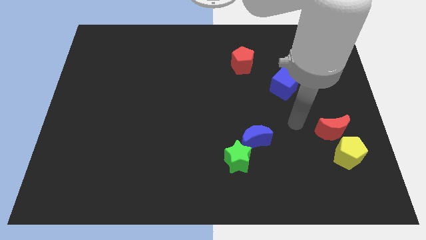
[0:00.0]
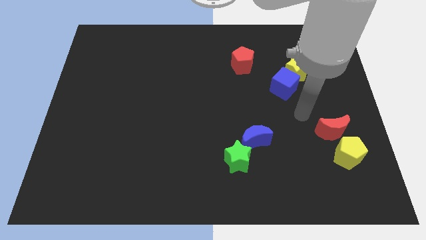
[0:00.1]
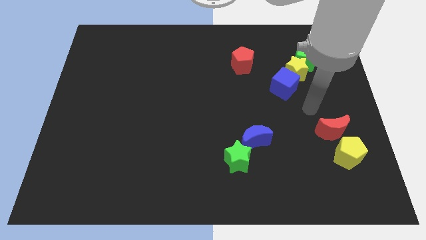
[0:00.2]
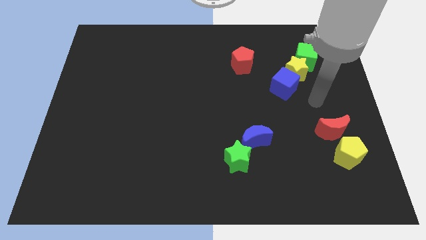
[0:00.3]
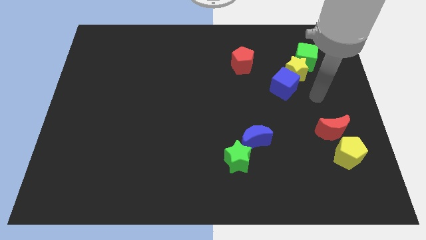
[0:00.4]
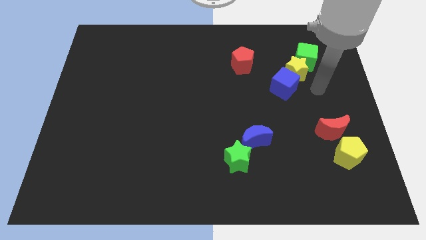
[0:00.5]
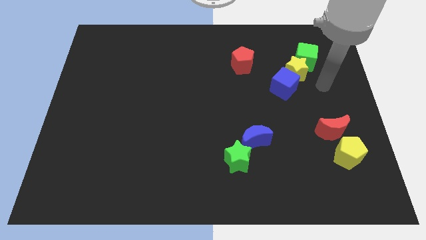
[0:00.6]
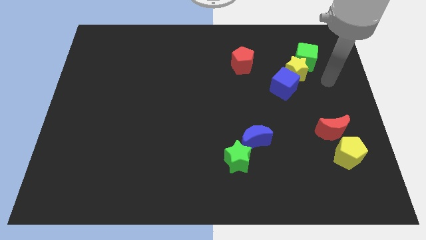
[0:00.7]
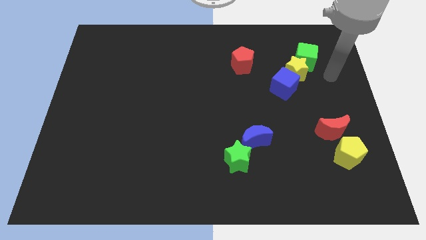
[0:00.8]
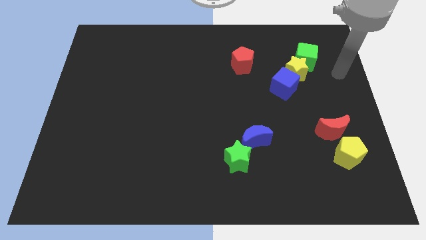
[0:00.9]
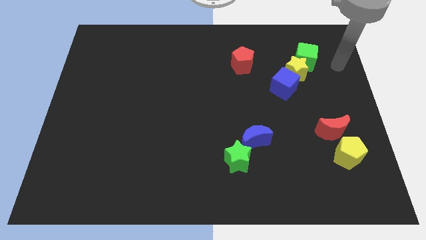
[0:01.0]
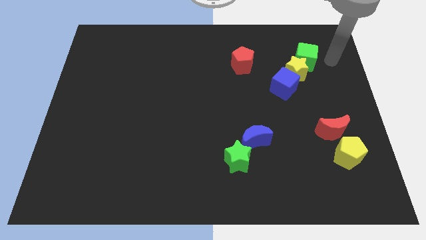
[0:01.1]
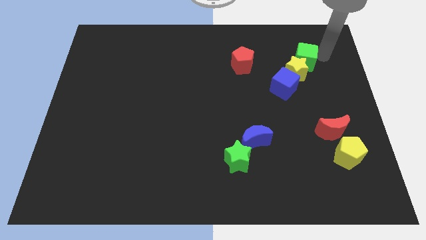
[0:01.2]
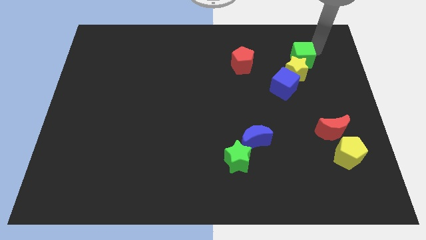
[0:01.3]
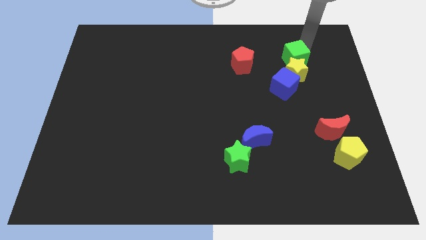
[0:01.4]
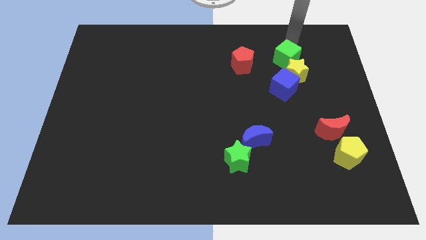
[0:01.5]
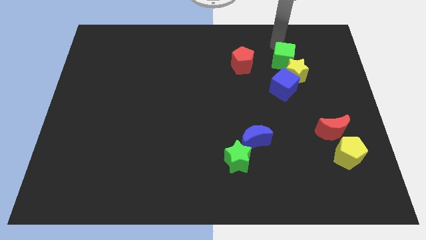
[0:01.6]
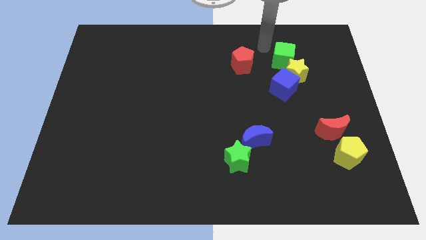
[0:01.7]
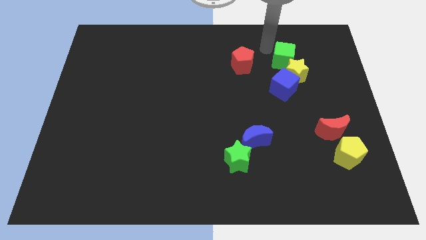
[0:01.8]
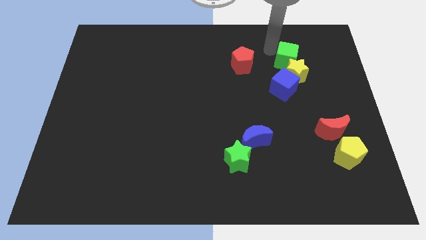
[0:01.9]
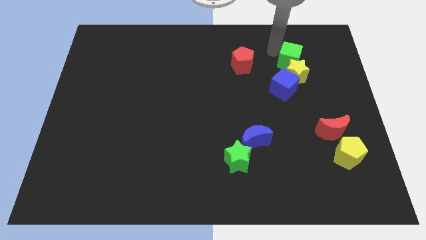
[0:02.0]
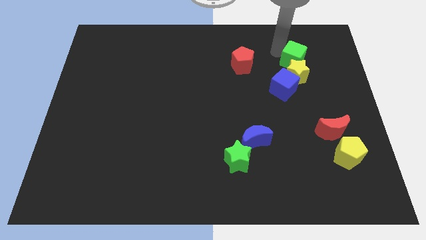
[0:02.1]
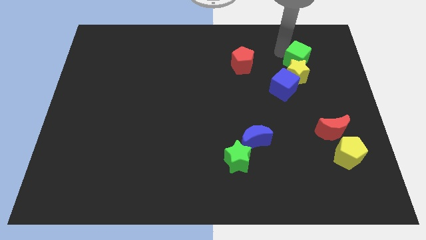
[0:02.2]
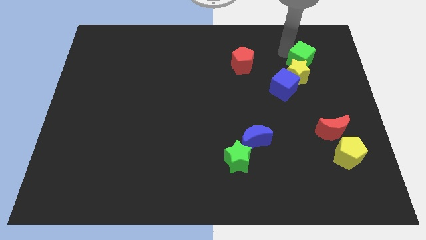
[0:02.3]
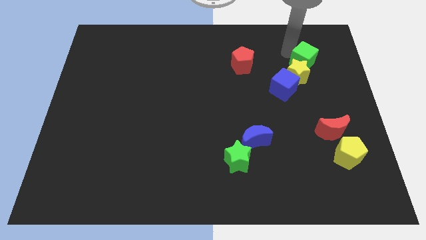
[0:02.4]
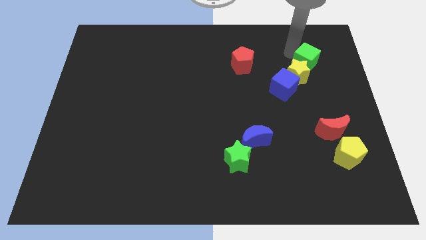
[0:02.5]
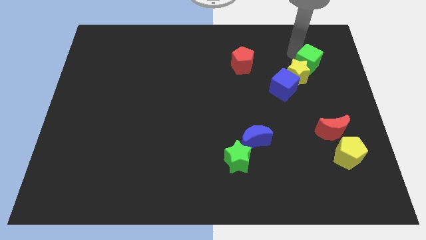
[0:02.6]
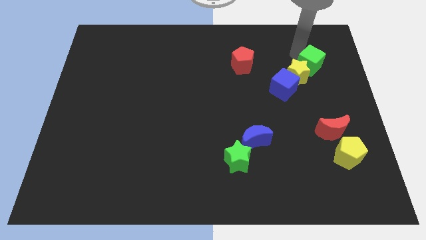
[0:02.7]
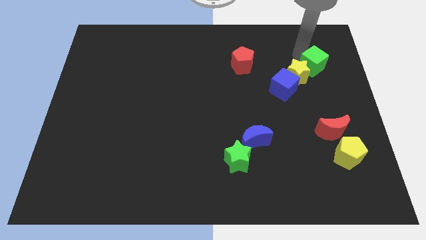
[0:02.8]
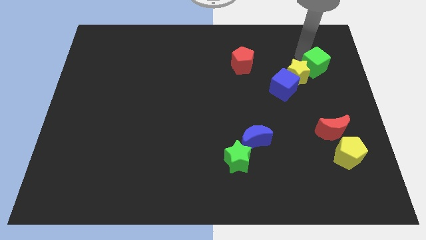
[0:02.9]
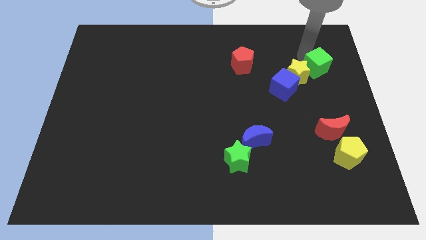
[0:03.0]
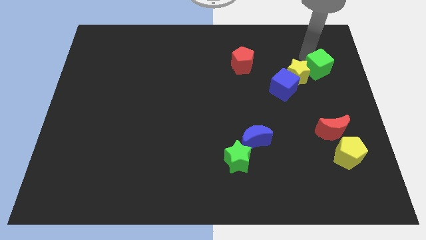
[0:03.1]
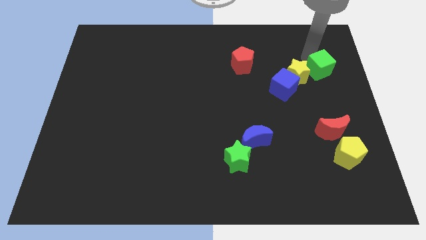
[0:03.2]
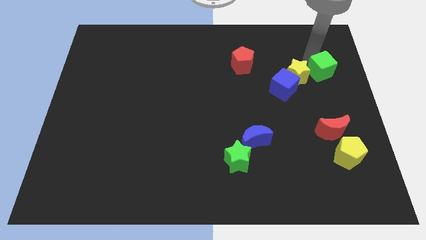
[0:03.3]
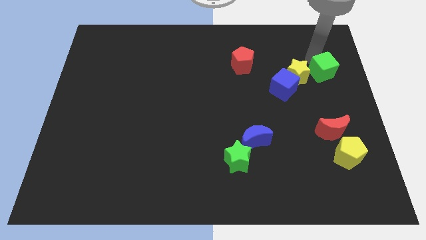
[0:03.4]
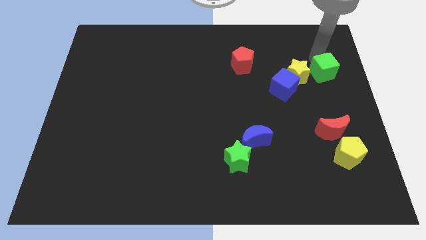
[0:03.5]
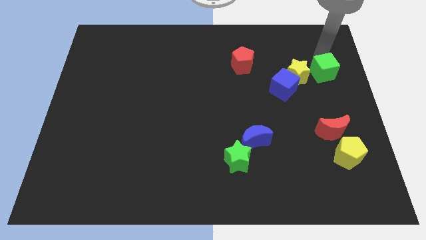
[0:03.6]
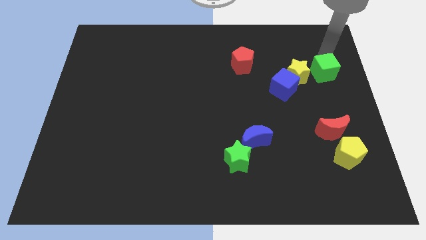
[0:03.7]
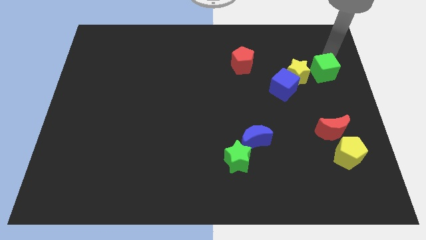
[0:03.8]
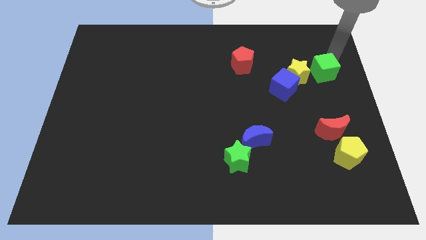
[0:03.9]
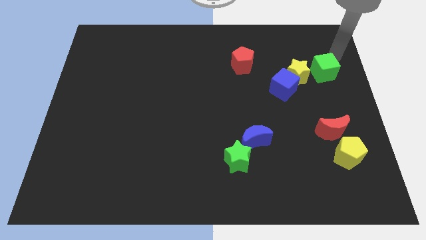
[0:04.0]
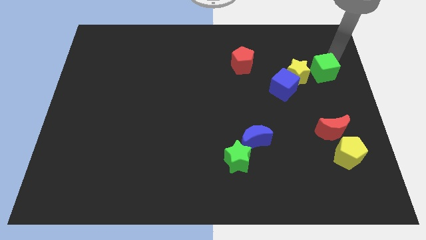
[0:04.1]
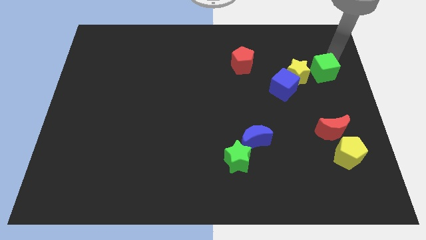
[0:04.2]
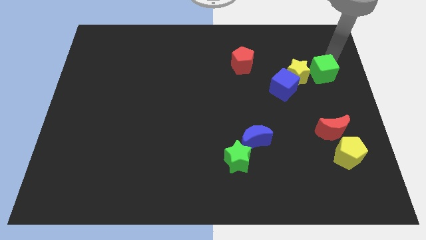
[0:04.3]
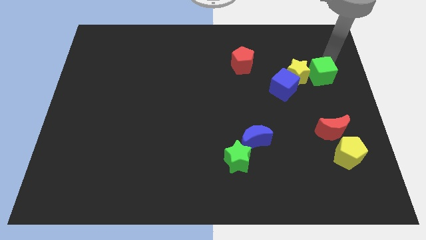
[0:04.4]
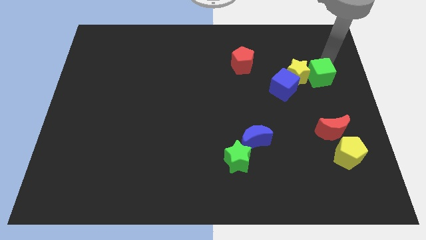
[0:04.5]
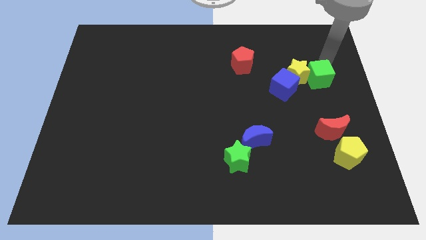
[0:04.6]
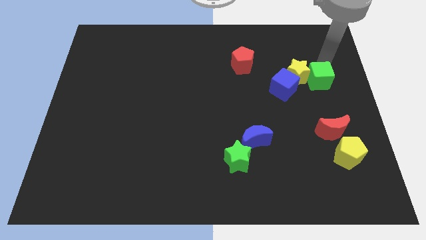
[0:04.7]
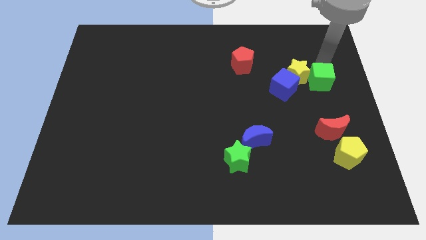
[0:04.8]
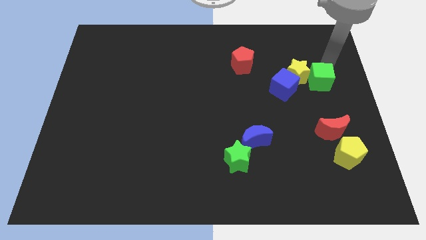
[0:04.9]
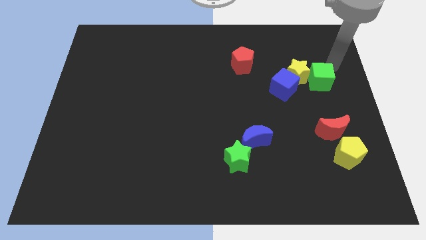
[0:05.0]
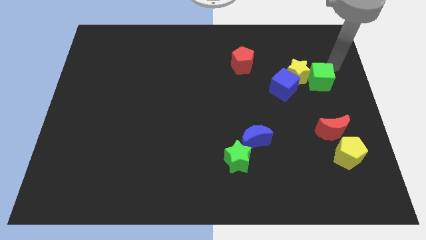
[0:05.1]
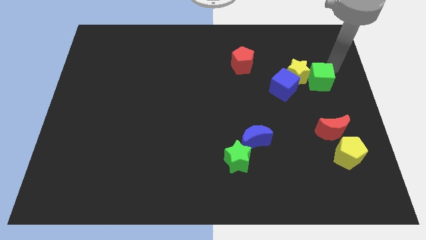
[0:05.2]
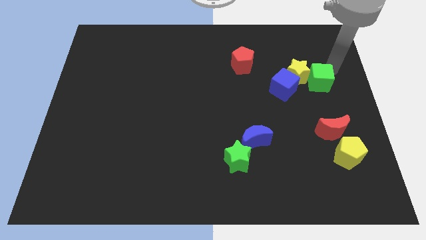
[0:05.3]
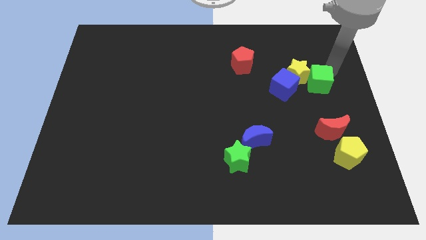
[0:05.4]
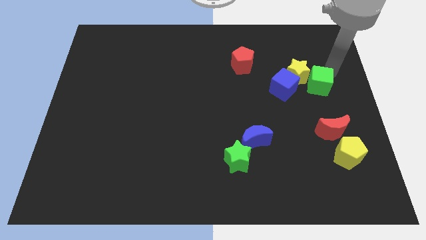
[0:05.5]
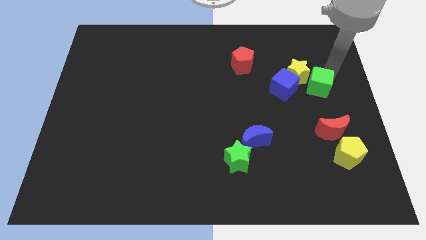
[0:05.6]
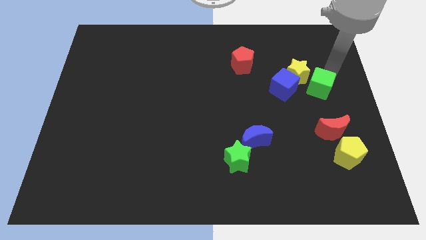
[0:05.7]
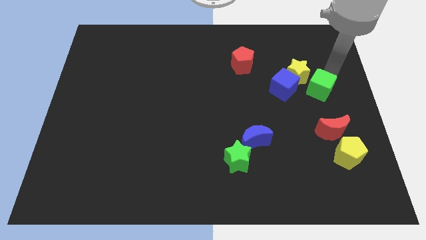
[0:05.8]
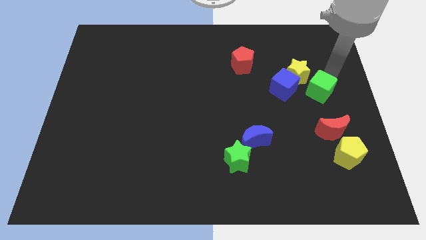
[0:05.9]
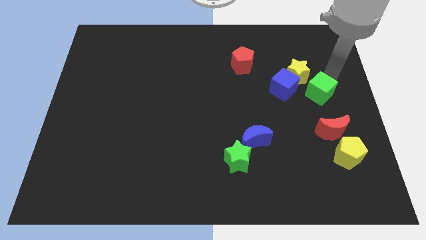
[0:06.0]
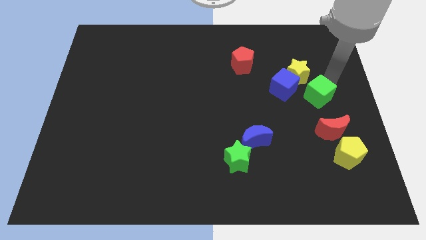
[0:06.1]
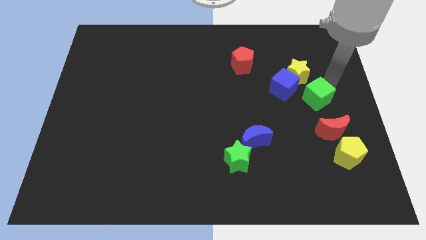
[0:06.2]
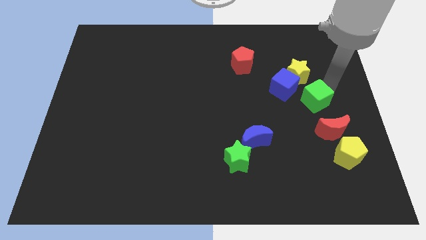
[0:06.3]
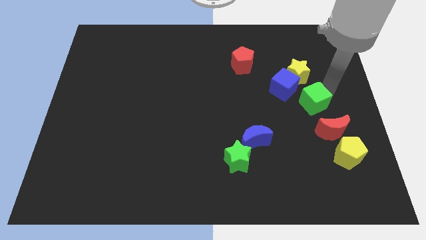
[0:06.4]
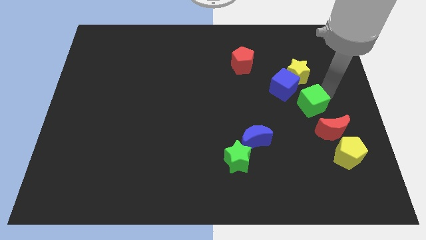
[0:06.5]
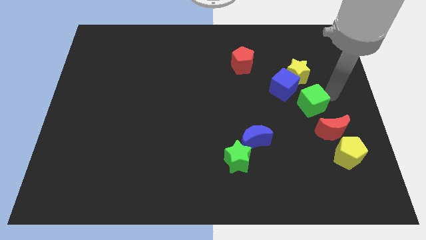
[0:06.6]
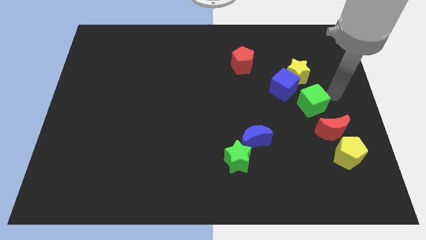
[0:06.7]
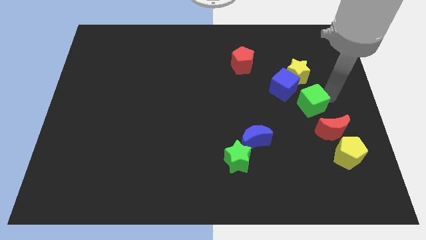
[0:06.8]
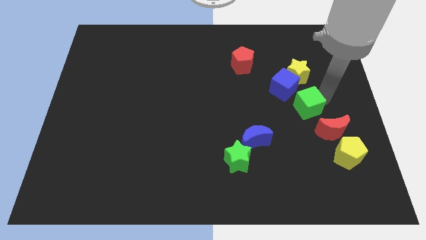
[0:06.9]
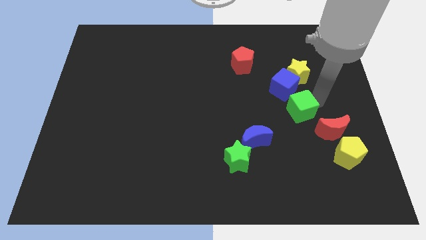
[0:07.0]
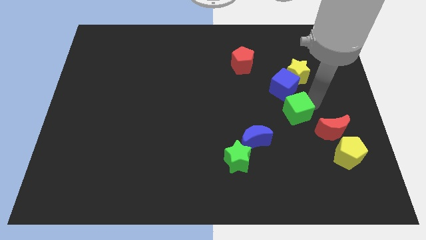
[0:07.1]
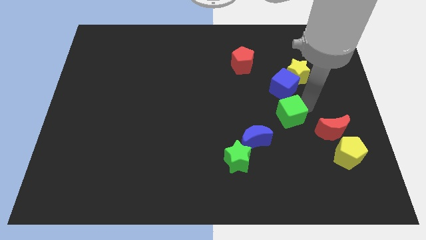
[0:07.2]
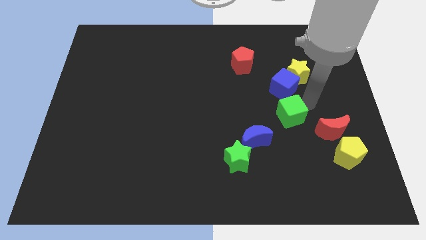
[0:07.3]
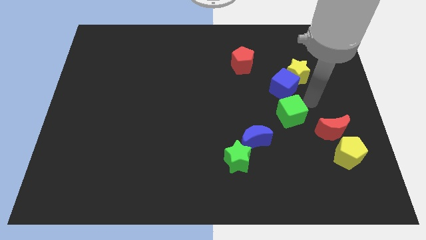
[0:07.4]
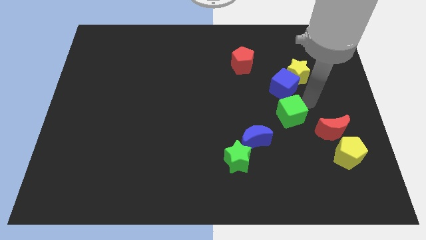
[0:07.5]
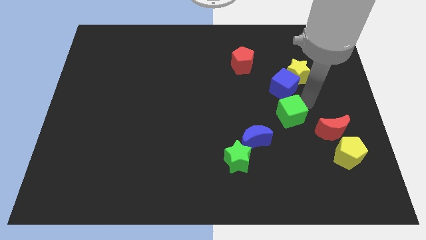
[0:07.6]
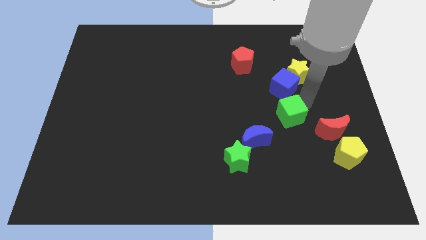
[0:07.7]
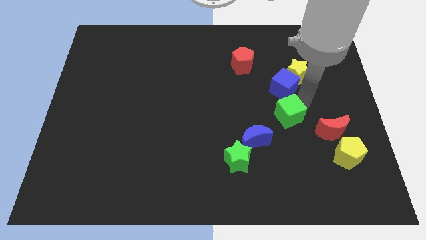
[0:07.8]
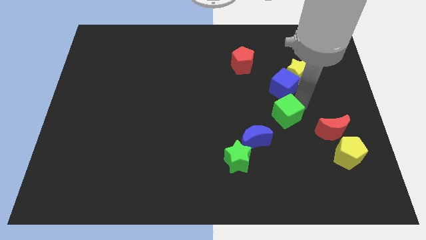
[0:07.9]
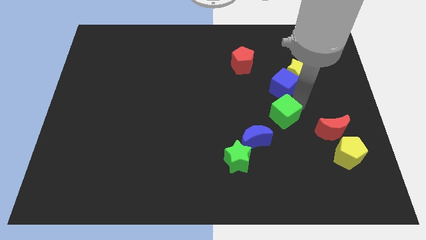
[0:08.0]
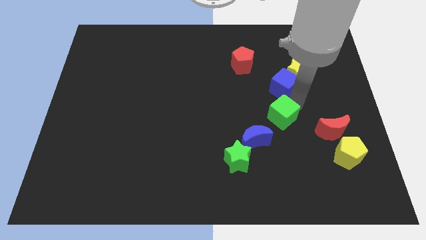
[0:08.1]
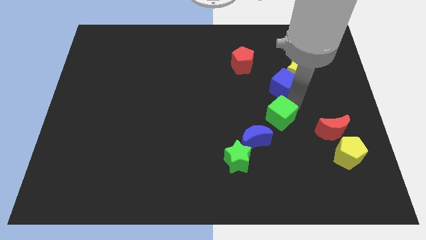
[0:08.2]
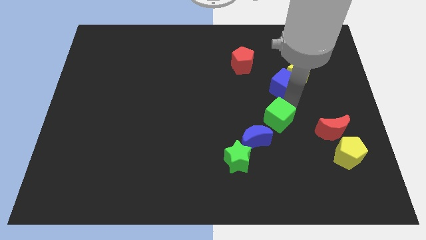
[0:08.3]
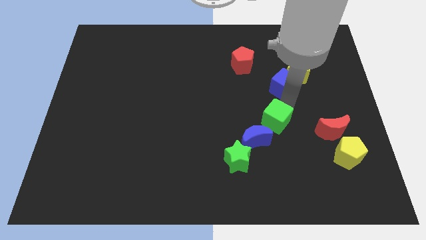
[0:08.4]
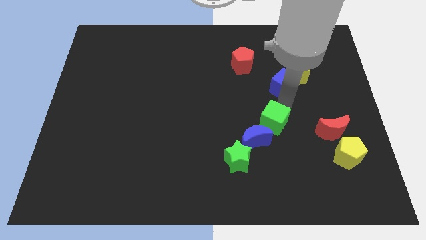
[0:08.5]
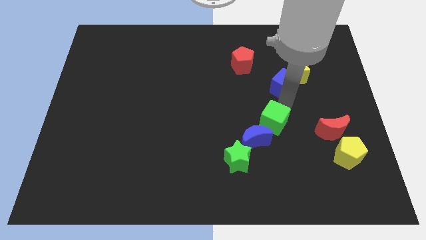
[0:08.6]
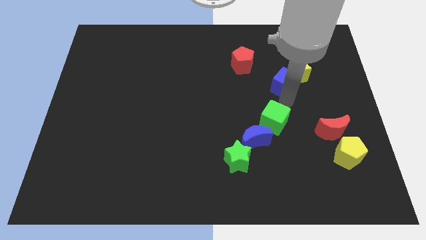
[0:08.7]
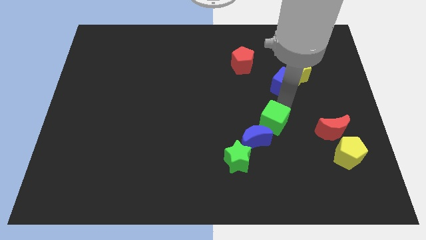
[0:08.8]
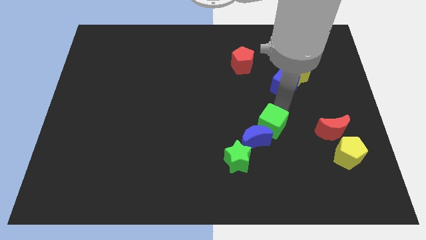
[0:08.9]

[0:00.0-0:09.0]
push the green cube to the top right side of the green star
